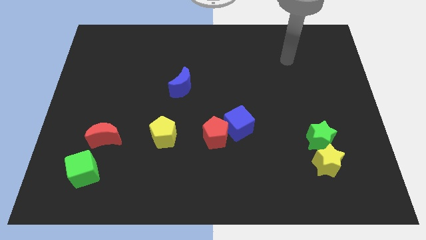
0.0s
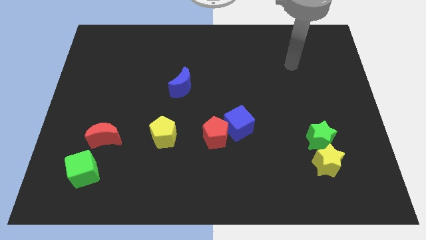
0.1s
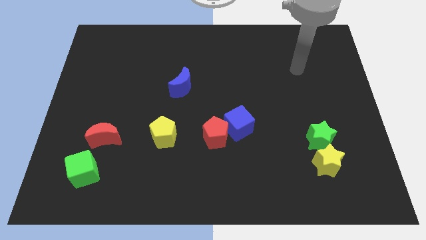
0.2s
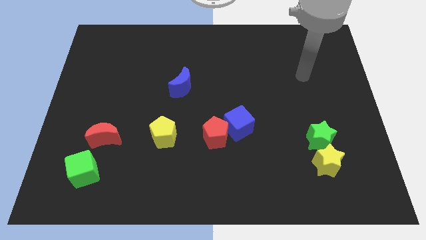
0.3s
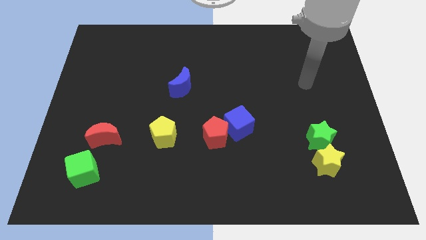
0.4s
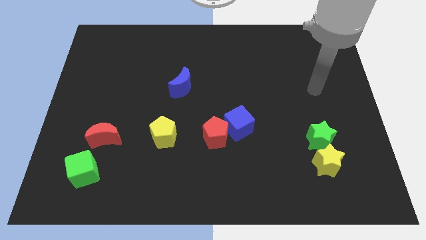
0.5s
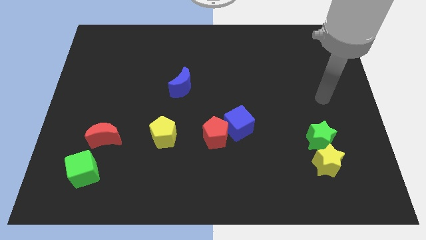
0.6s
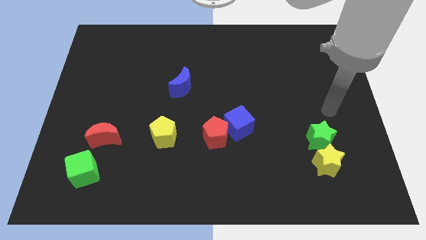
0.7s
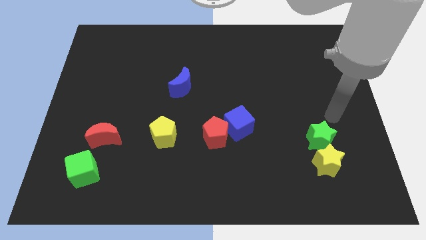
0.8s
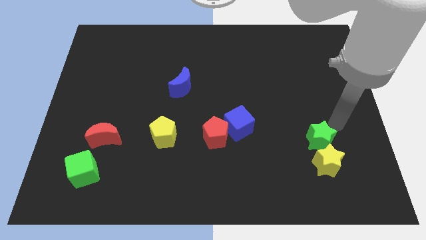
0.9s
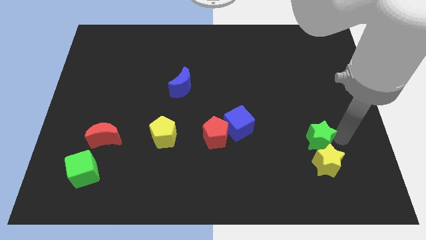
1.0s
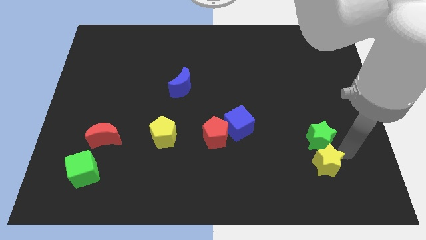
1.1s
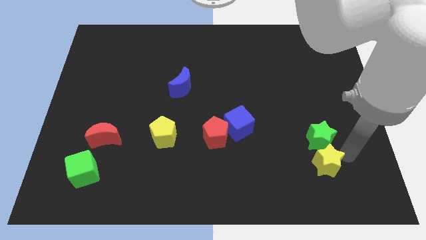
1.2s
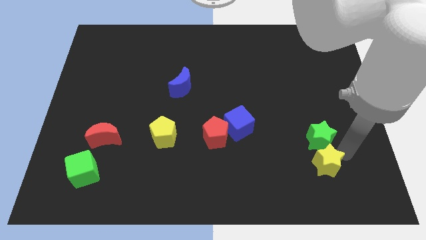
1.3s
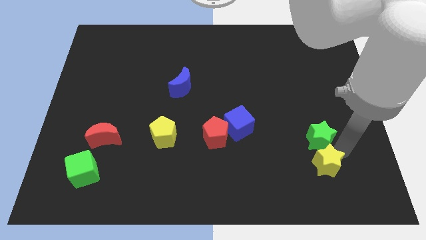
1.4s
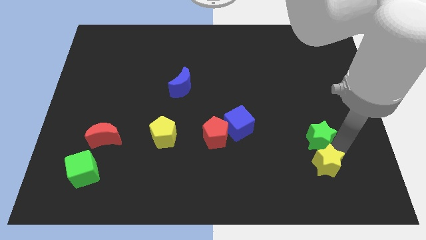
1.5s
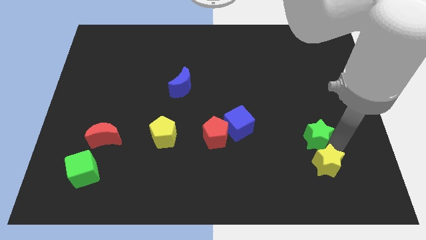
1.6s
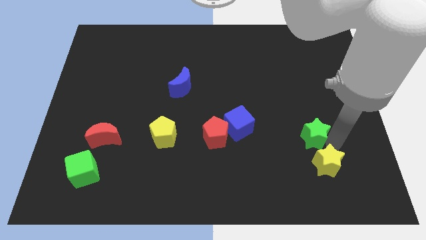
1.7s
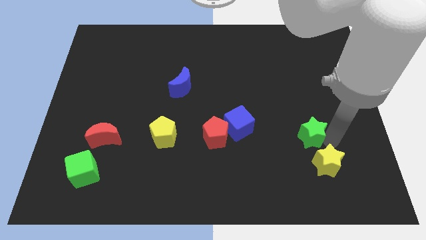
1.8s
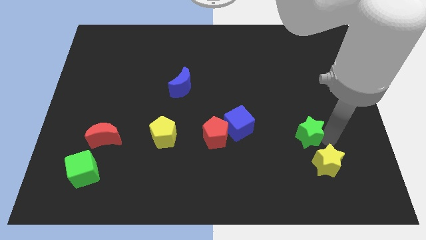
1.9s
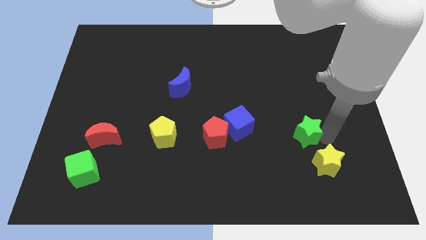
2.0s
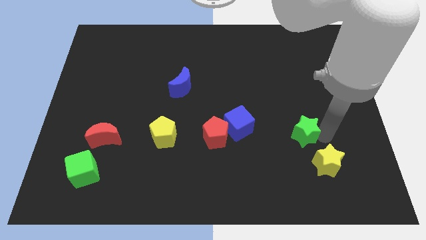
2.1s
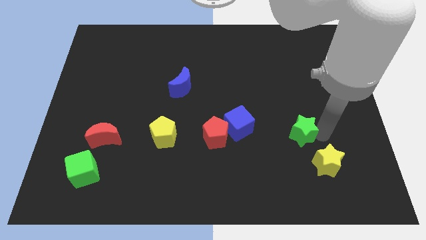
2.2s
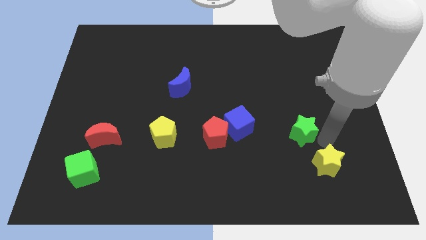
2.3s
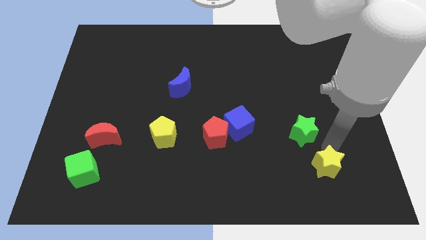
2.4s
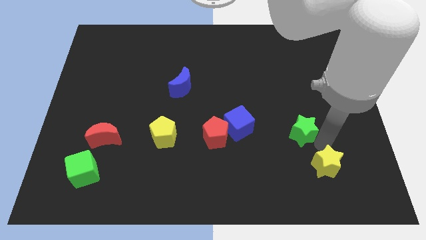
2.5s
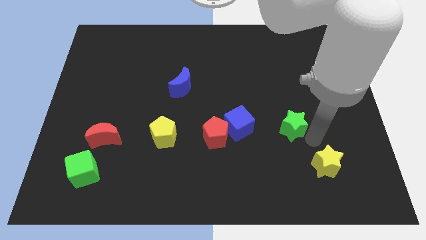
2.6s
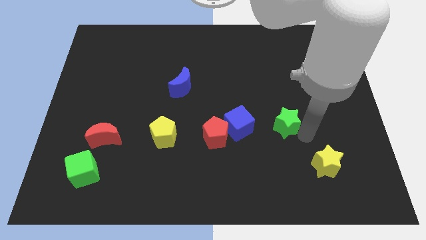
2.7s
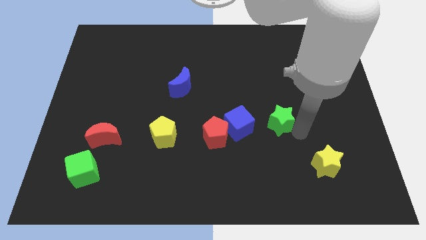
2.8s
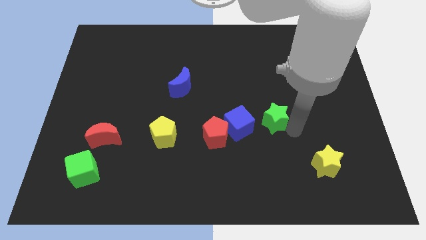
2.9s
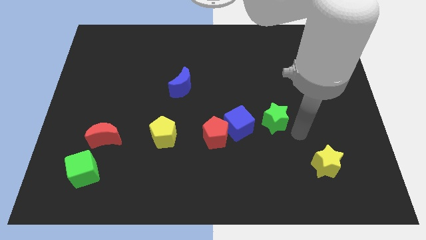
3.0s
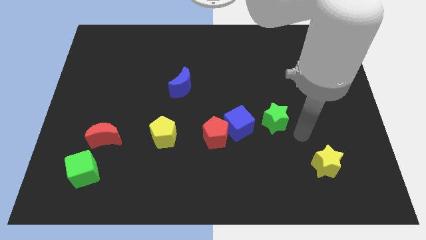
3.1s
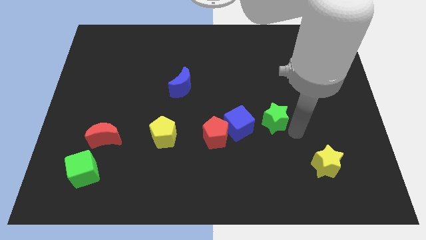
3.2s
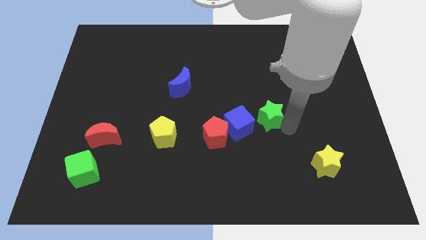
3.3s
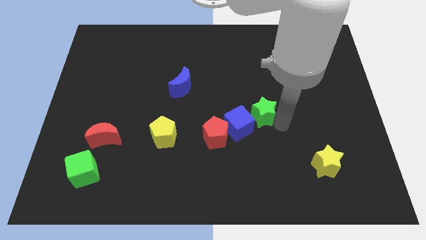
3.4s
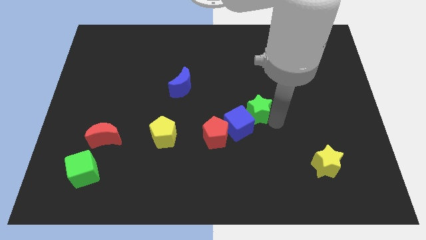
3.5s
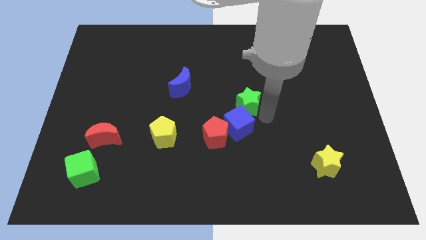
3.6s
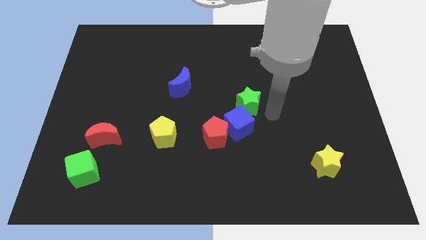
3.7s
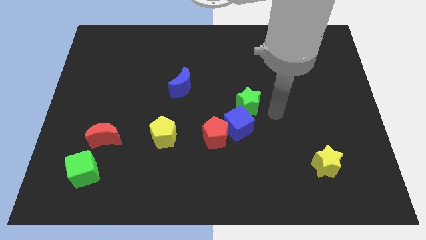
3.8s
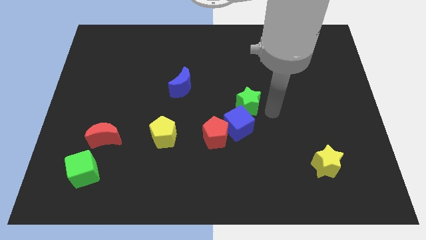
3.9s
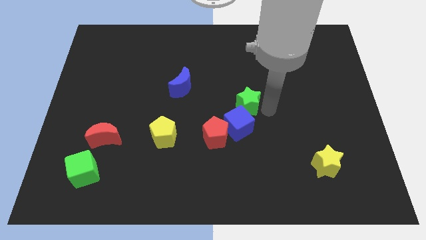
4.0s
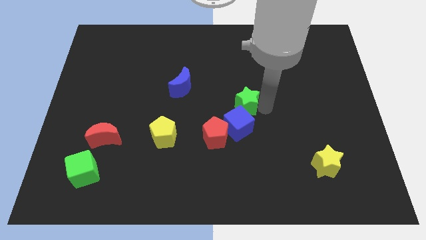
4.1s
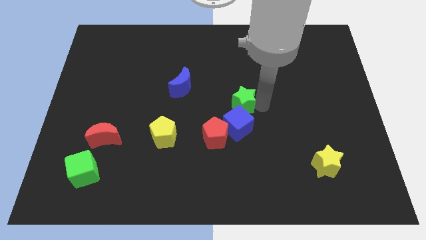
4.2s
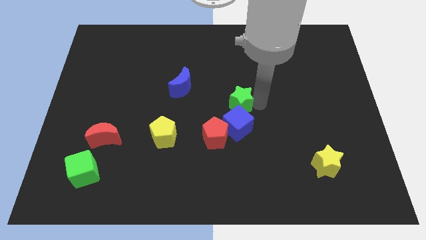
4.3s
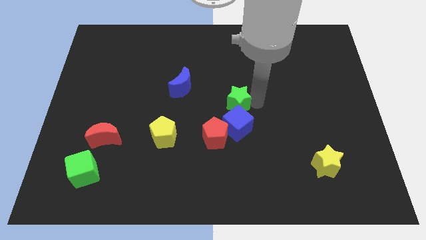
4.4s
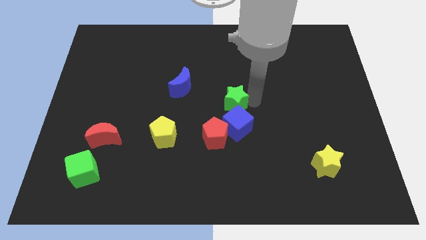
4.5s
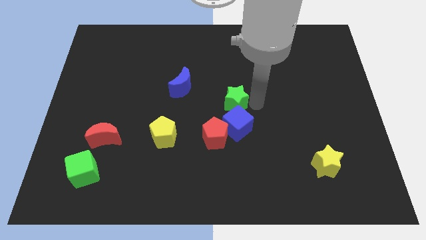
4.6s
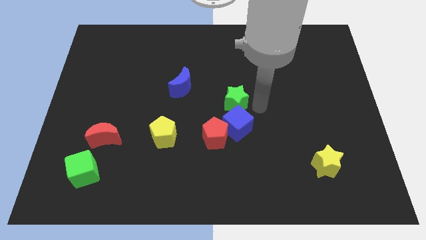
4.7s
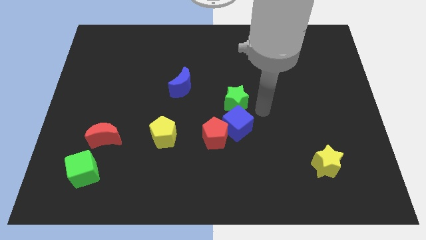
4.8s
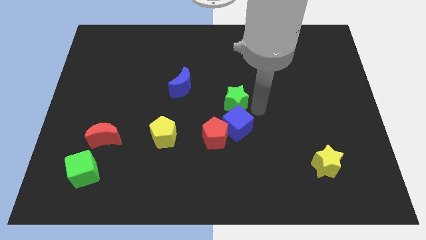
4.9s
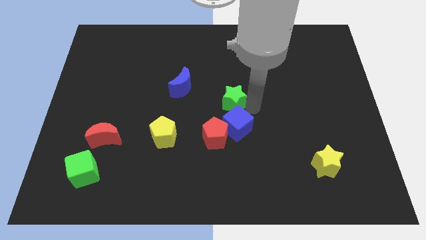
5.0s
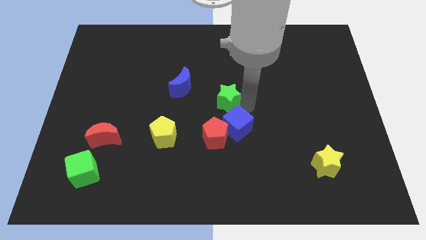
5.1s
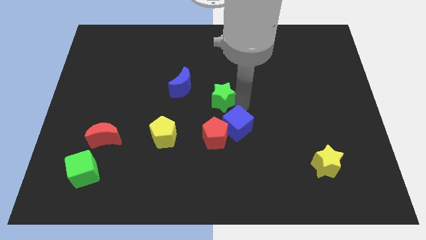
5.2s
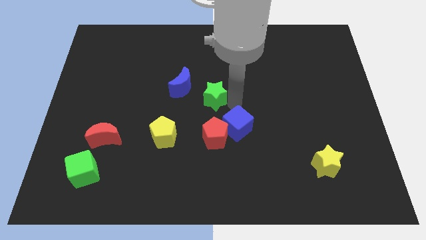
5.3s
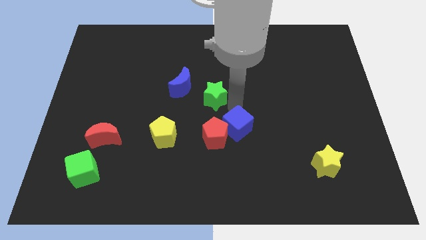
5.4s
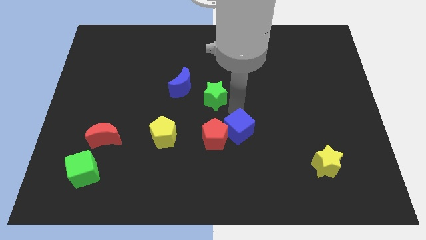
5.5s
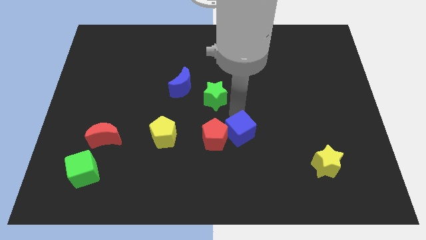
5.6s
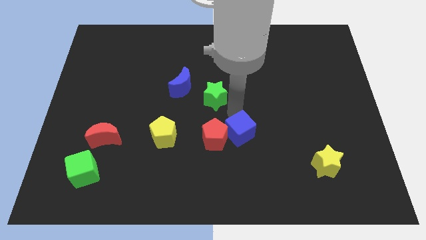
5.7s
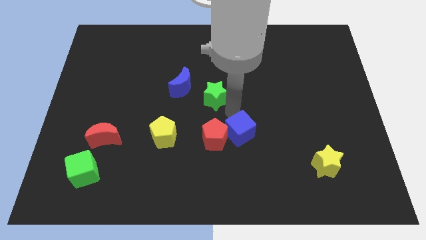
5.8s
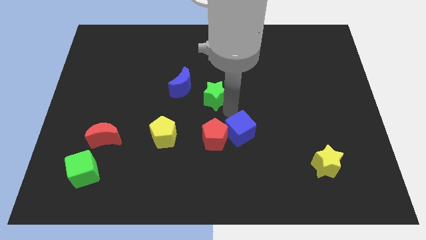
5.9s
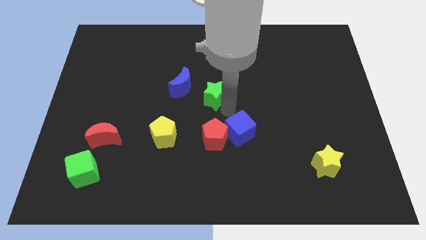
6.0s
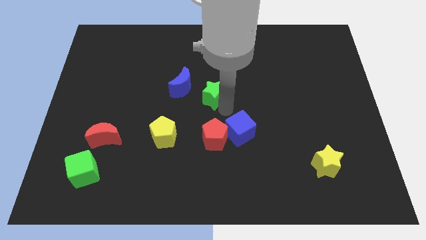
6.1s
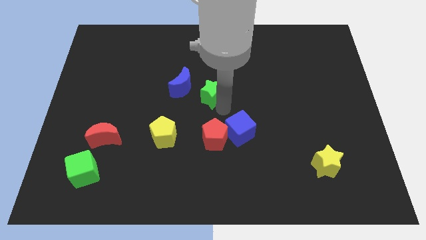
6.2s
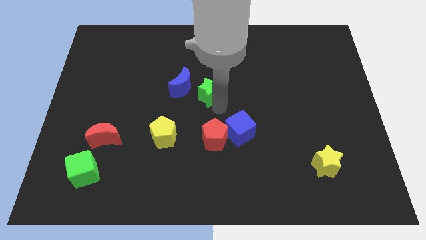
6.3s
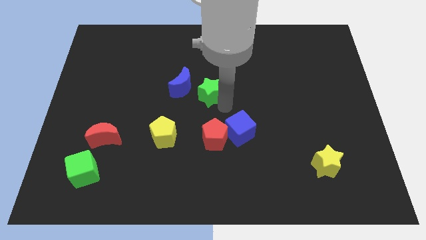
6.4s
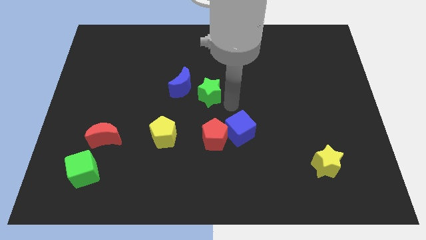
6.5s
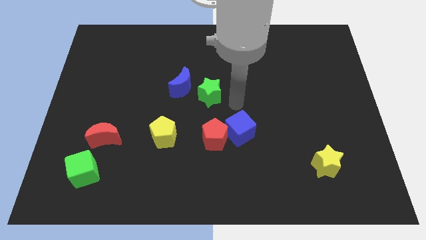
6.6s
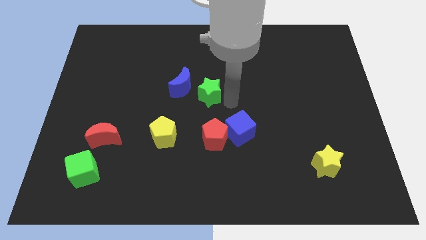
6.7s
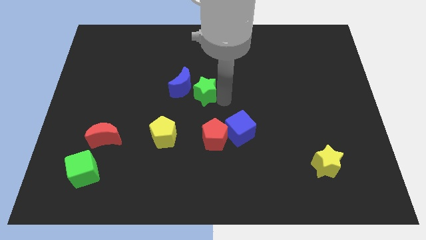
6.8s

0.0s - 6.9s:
move the green star close to the blue moon

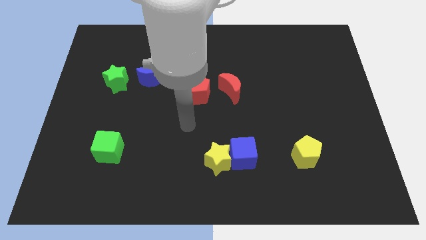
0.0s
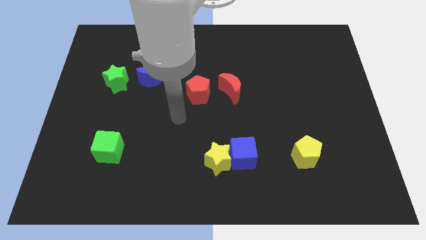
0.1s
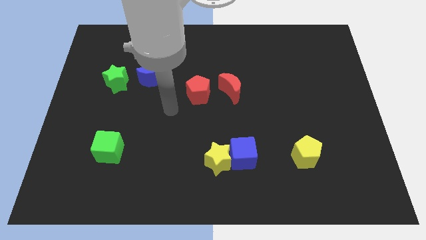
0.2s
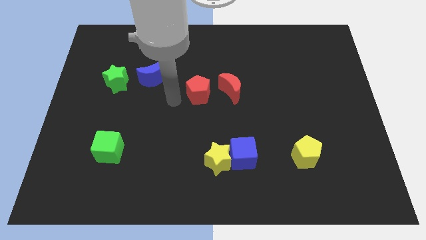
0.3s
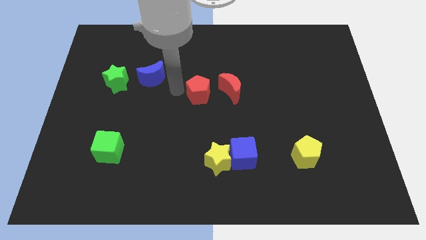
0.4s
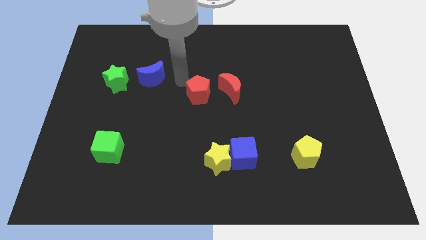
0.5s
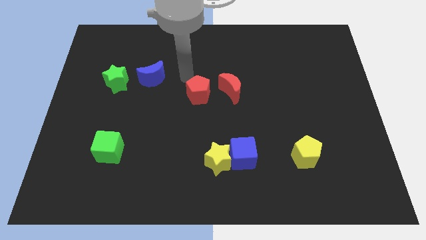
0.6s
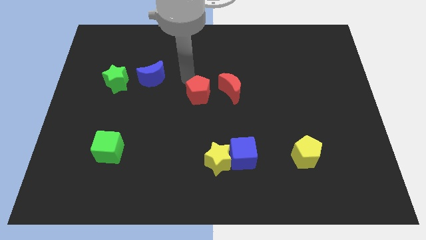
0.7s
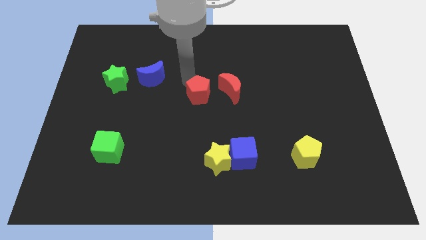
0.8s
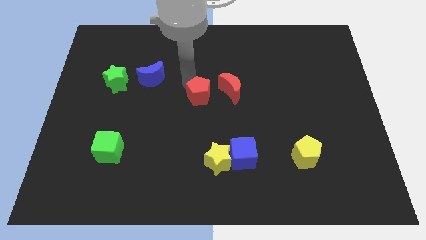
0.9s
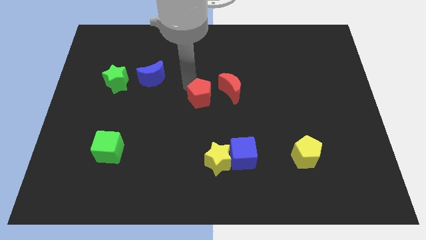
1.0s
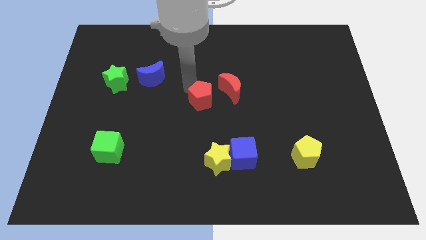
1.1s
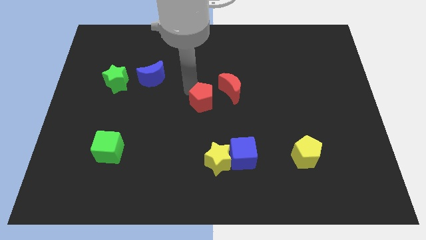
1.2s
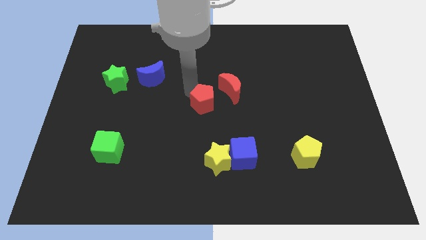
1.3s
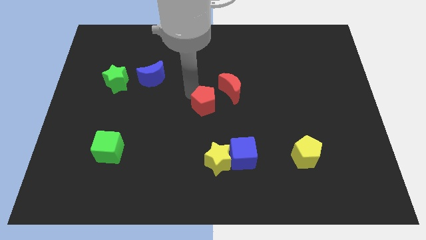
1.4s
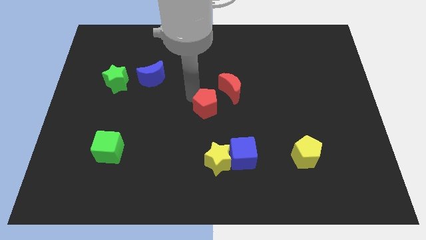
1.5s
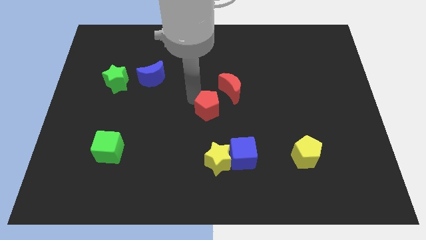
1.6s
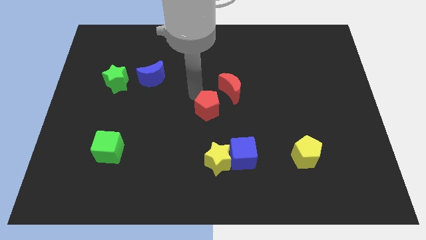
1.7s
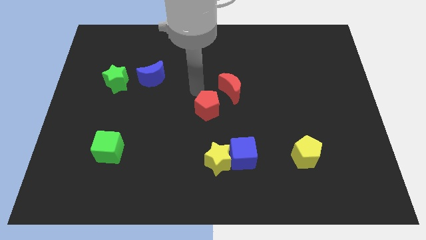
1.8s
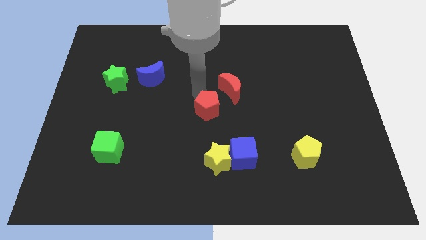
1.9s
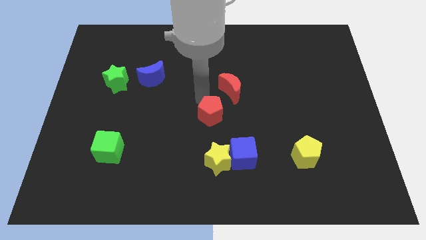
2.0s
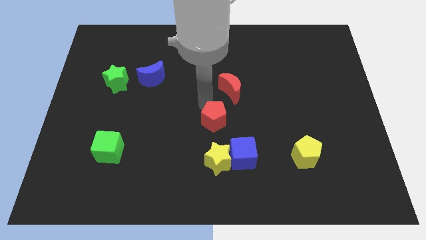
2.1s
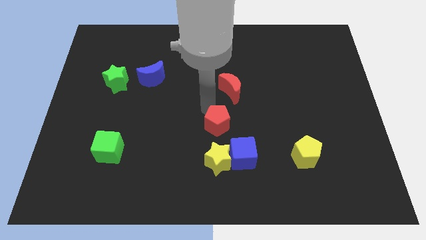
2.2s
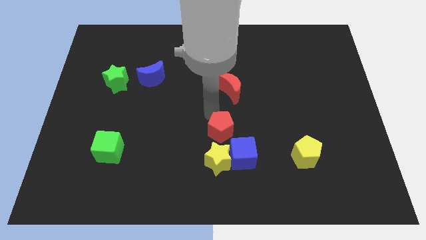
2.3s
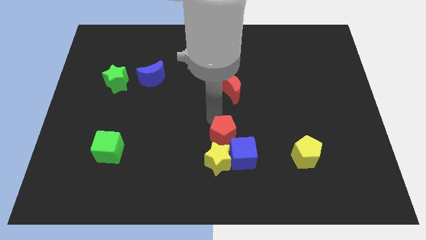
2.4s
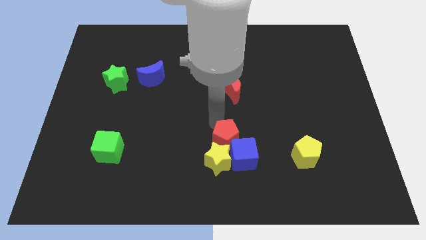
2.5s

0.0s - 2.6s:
put the red pentagon to the blue cube
